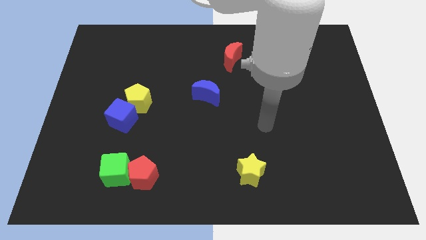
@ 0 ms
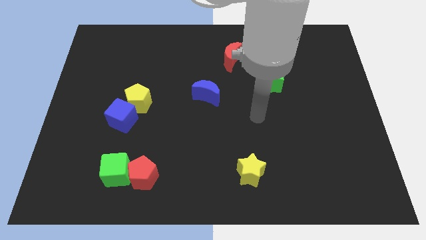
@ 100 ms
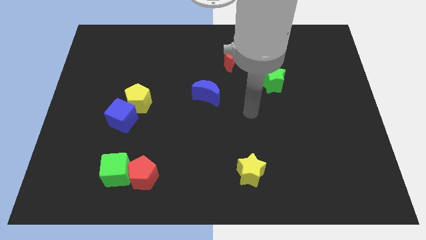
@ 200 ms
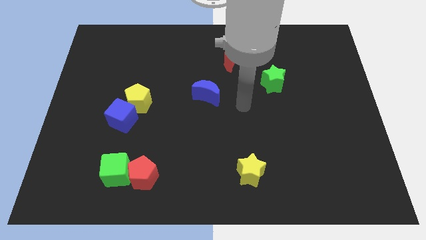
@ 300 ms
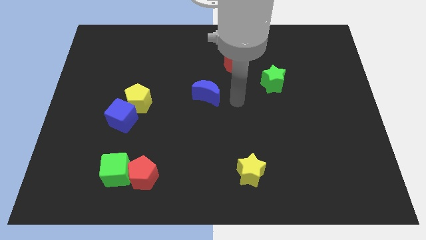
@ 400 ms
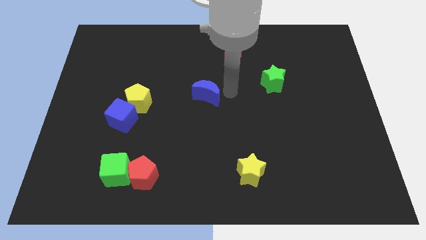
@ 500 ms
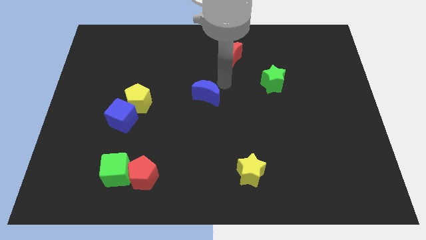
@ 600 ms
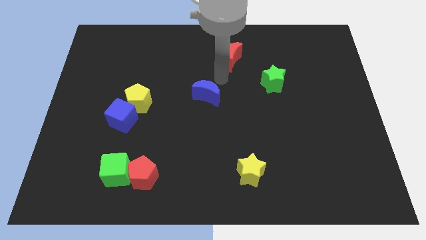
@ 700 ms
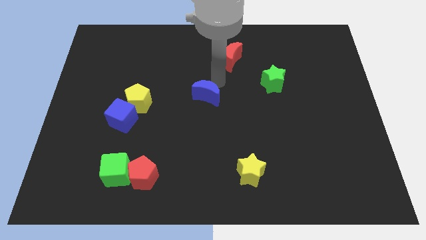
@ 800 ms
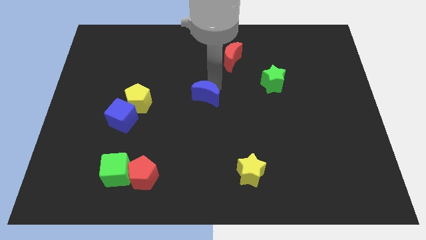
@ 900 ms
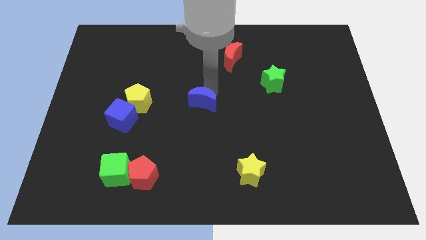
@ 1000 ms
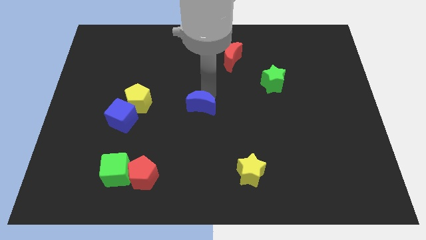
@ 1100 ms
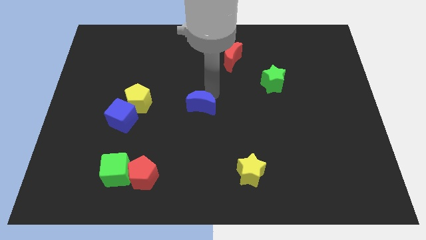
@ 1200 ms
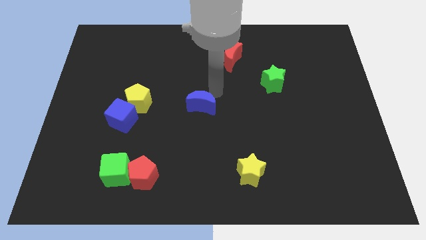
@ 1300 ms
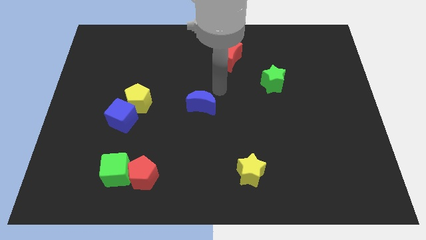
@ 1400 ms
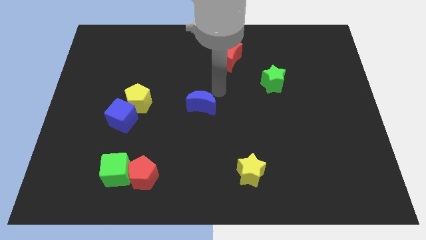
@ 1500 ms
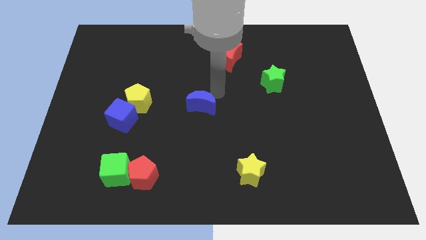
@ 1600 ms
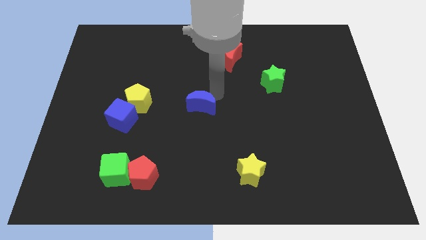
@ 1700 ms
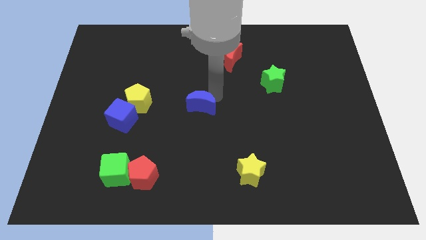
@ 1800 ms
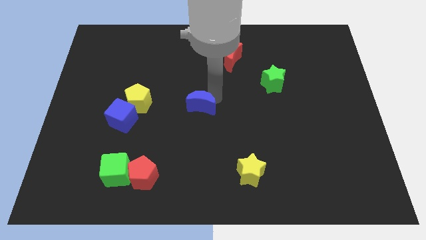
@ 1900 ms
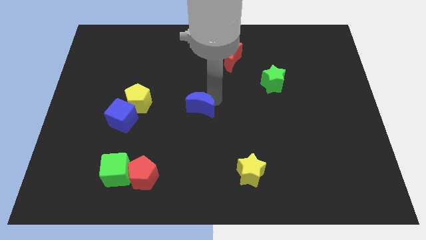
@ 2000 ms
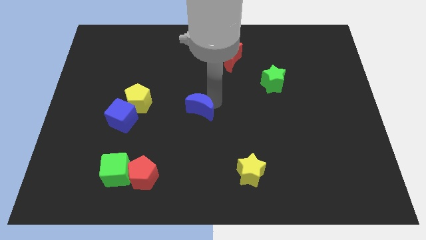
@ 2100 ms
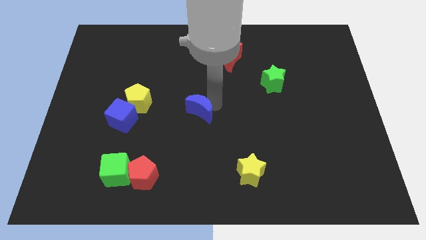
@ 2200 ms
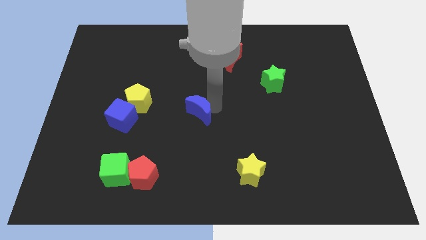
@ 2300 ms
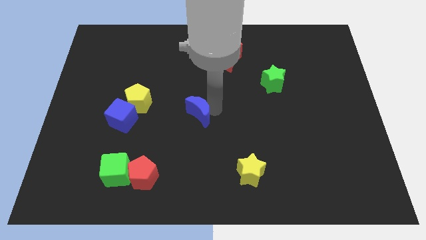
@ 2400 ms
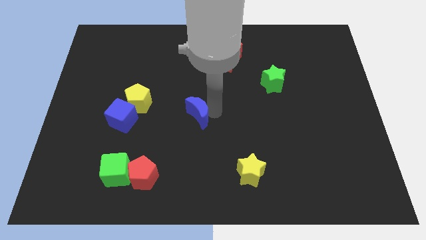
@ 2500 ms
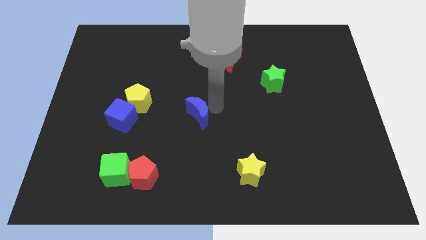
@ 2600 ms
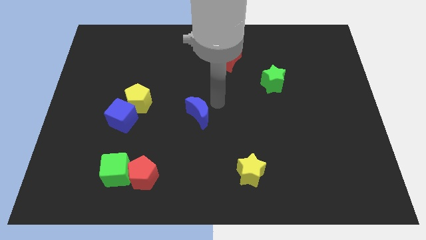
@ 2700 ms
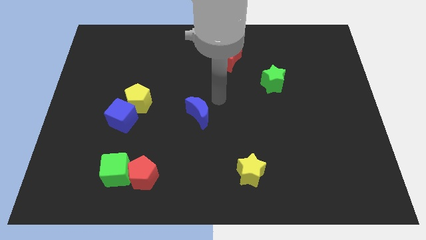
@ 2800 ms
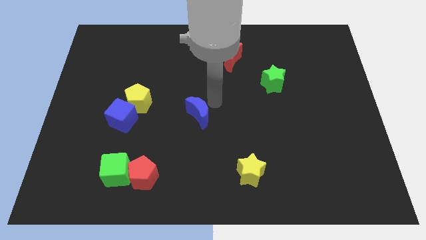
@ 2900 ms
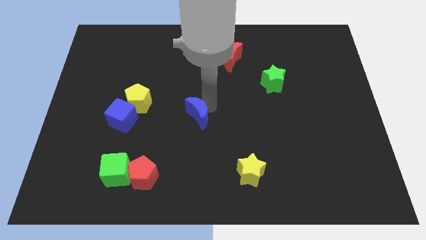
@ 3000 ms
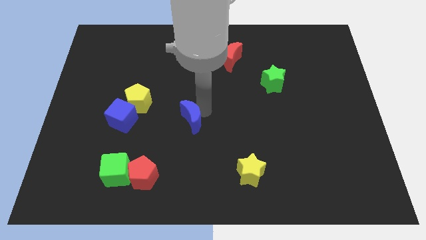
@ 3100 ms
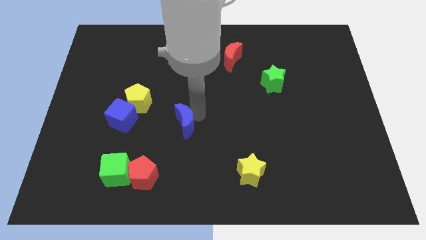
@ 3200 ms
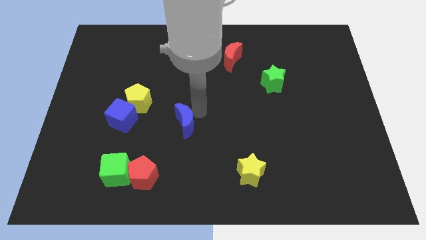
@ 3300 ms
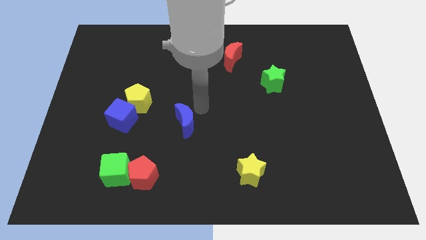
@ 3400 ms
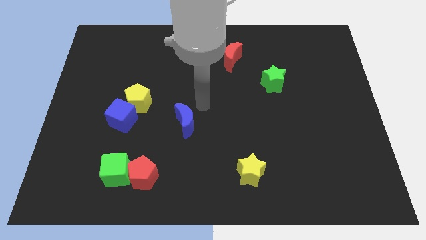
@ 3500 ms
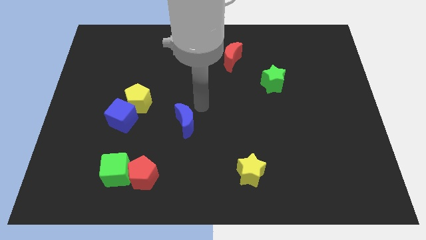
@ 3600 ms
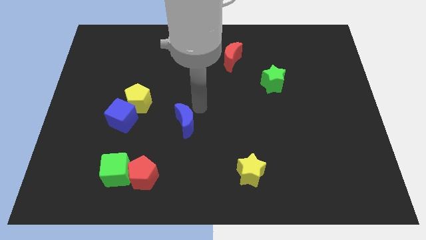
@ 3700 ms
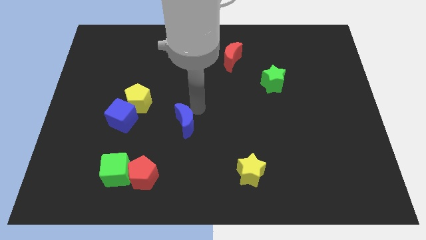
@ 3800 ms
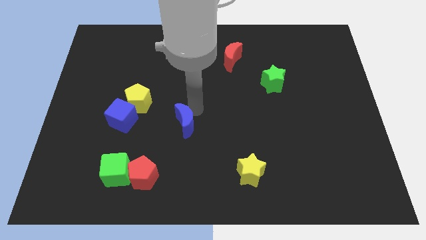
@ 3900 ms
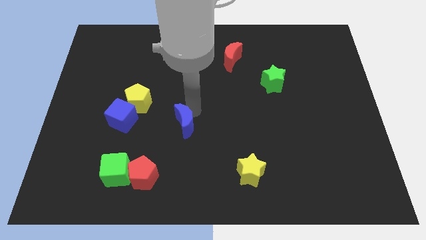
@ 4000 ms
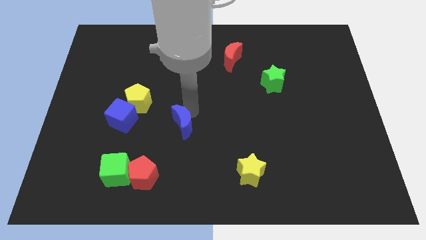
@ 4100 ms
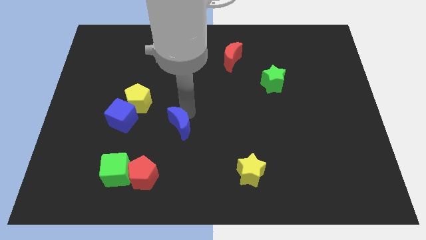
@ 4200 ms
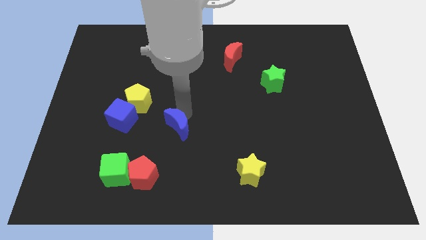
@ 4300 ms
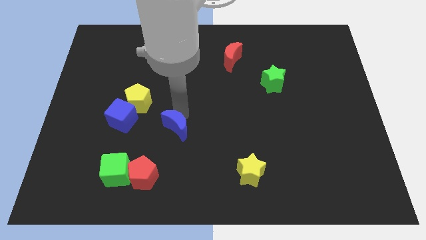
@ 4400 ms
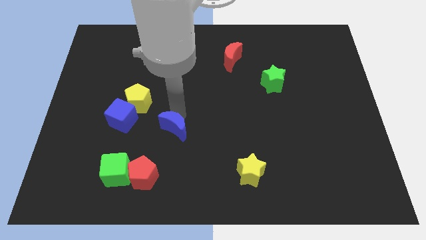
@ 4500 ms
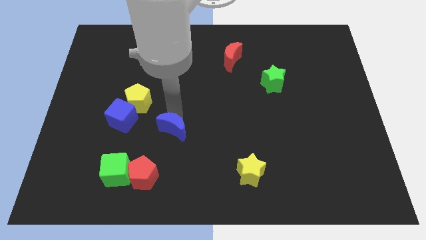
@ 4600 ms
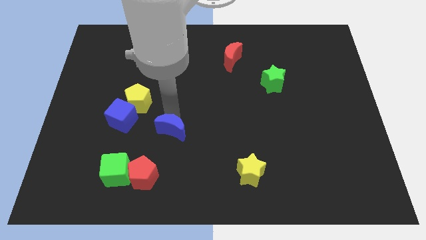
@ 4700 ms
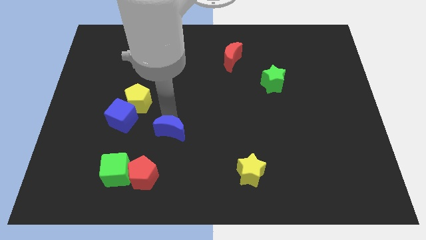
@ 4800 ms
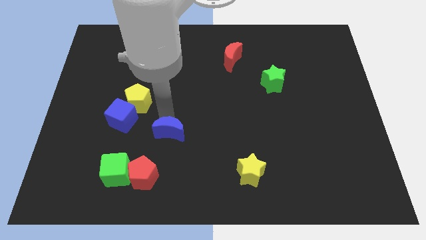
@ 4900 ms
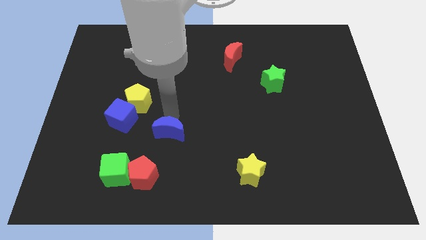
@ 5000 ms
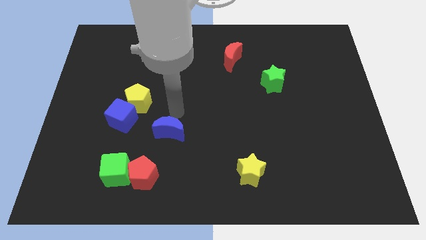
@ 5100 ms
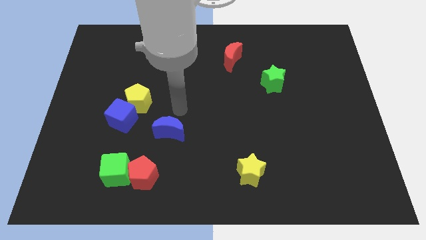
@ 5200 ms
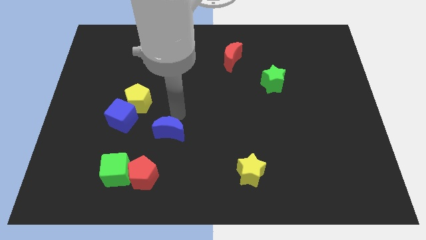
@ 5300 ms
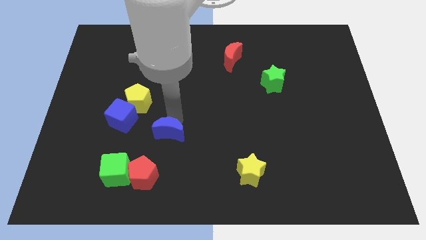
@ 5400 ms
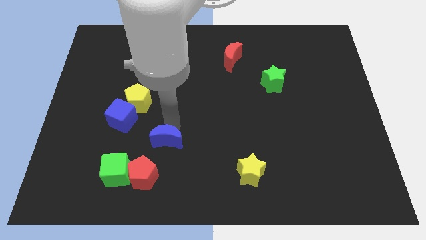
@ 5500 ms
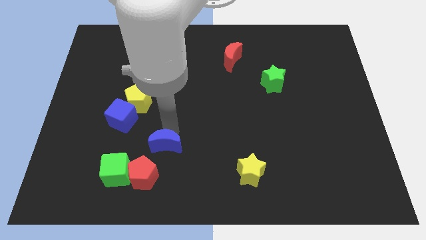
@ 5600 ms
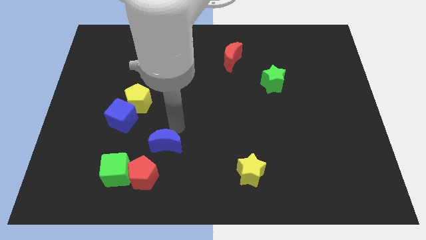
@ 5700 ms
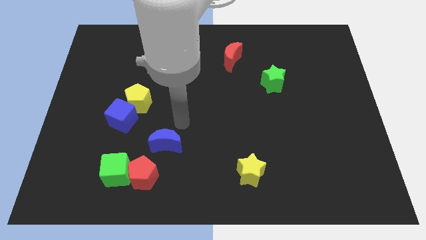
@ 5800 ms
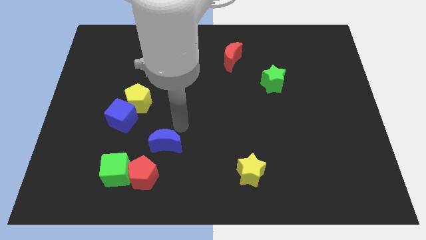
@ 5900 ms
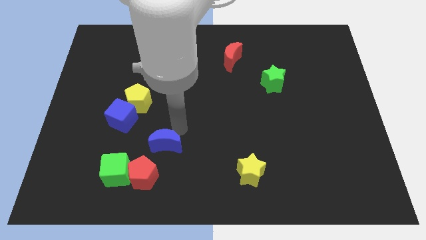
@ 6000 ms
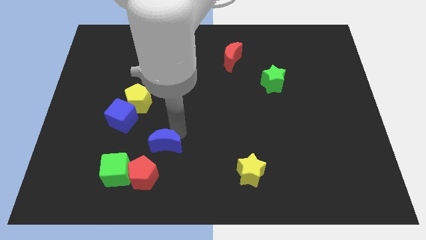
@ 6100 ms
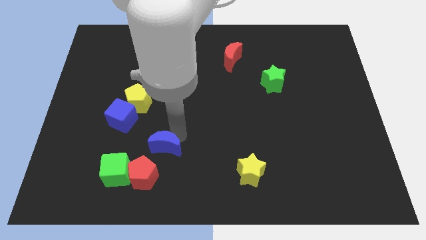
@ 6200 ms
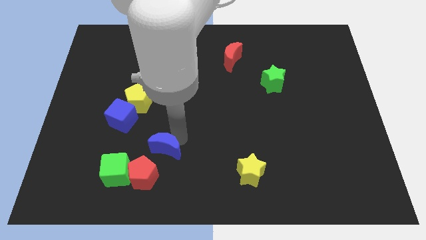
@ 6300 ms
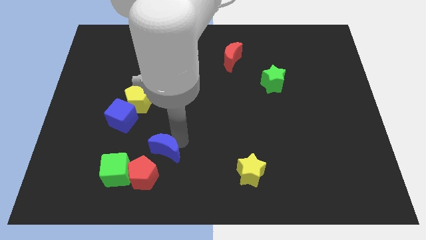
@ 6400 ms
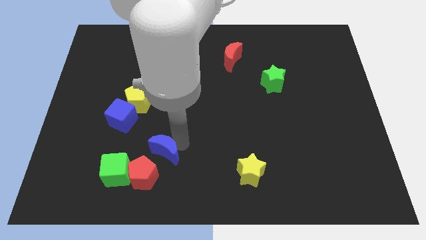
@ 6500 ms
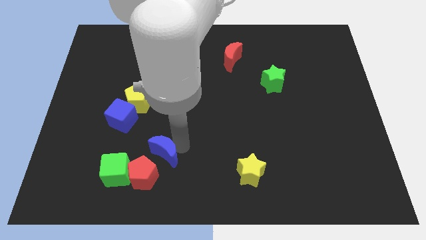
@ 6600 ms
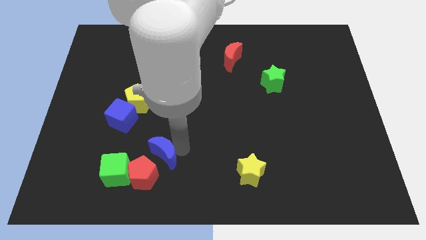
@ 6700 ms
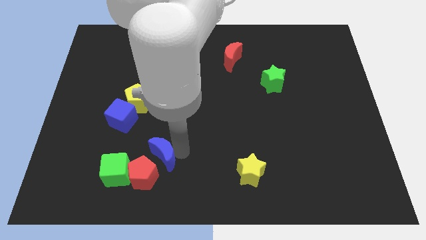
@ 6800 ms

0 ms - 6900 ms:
push the blue moon towards the red pentagon

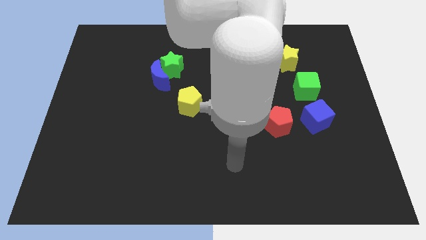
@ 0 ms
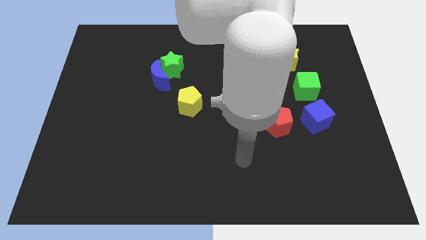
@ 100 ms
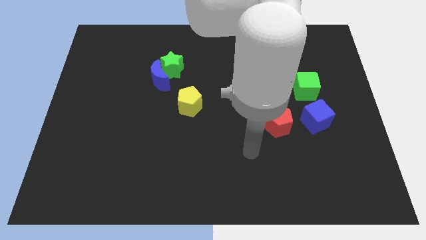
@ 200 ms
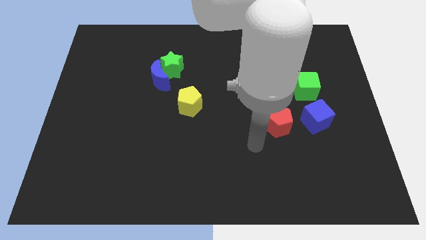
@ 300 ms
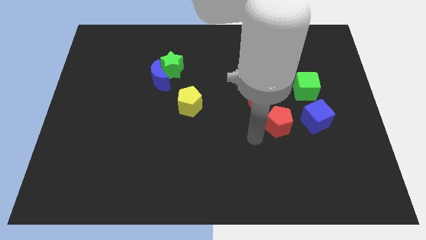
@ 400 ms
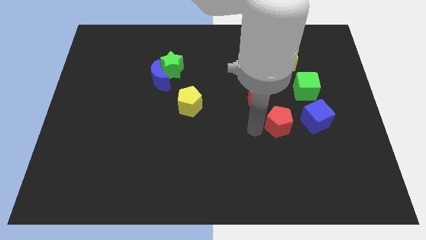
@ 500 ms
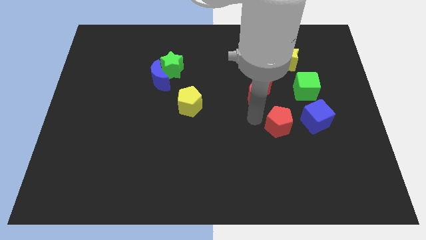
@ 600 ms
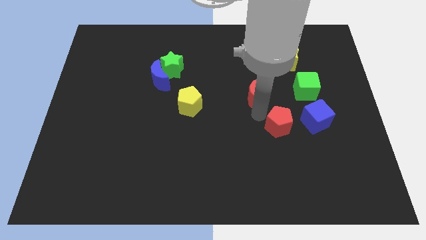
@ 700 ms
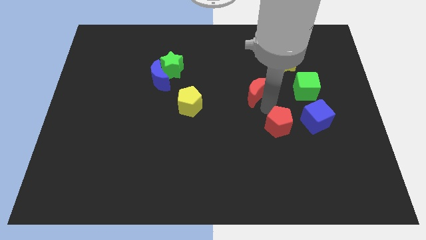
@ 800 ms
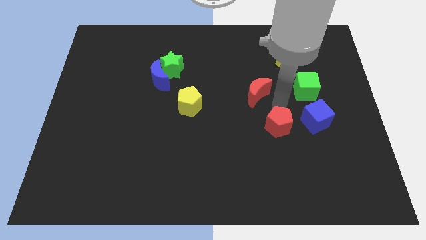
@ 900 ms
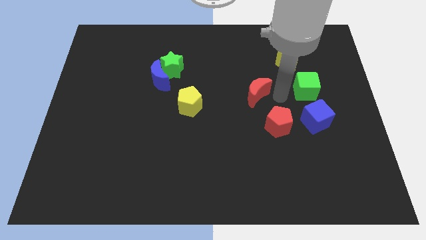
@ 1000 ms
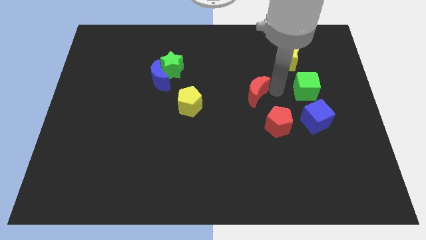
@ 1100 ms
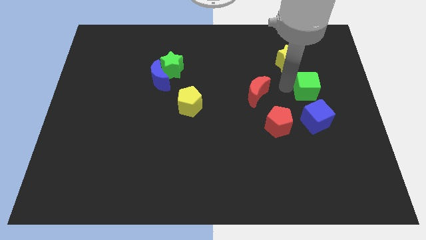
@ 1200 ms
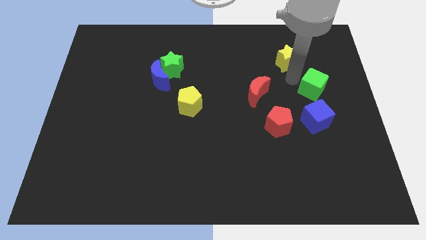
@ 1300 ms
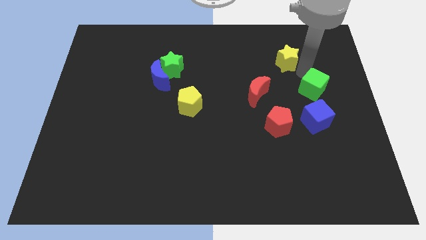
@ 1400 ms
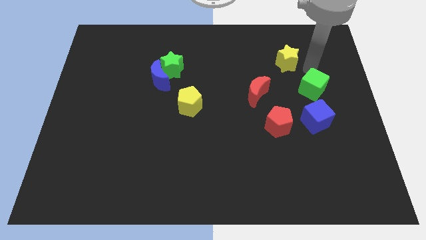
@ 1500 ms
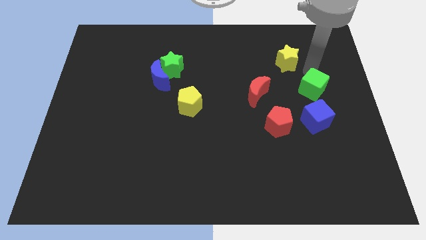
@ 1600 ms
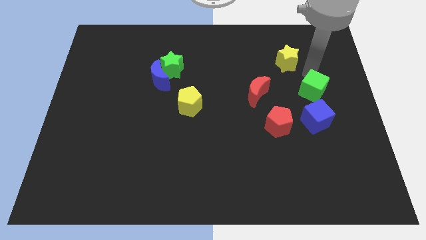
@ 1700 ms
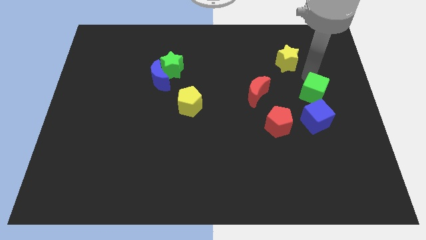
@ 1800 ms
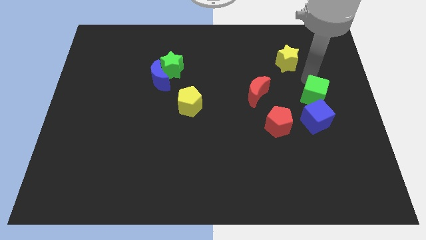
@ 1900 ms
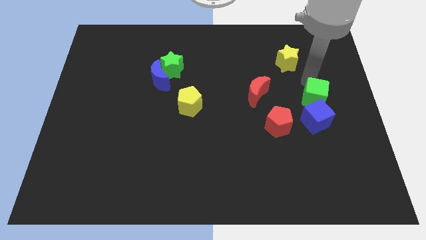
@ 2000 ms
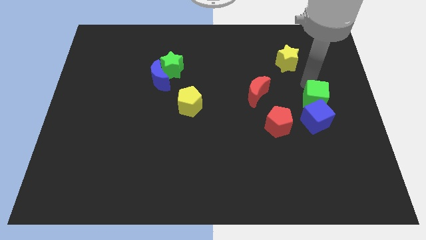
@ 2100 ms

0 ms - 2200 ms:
move the green cube next to the blue cube
